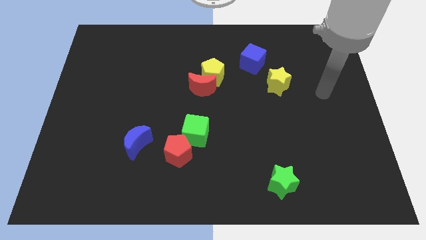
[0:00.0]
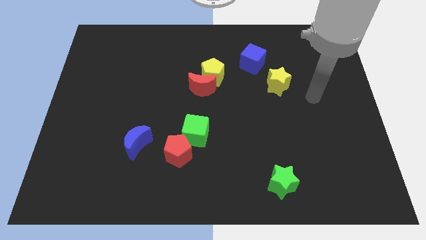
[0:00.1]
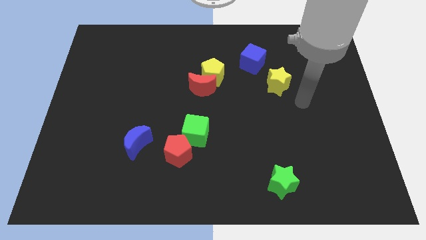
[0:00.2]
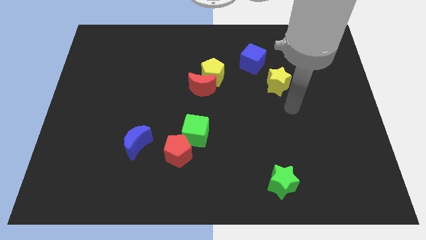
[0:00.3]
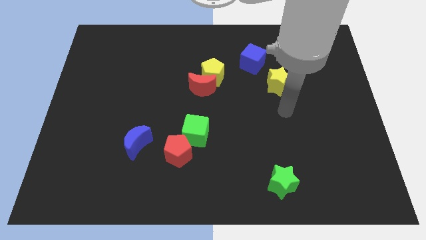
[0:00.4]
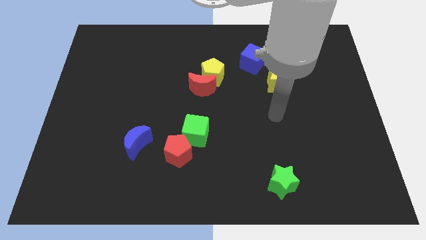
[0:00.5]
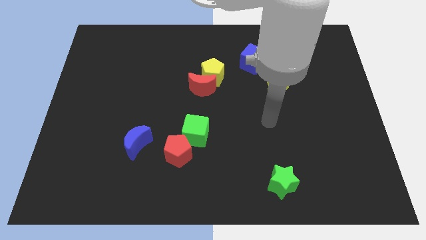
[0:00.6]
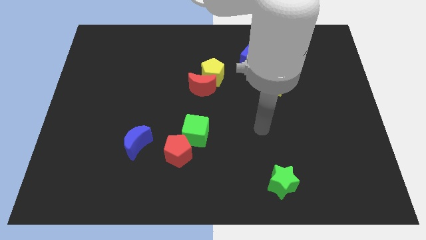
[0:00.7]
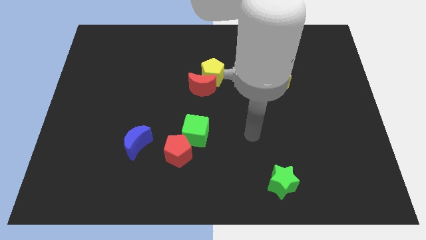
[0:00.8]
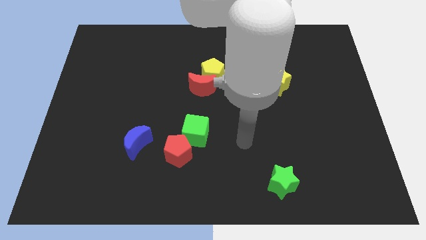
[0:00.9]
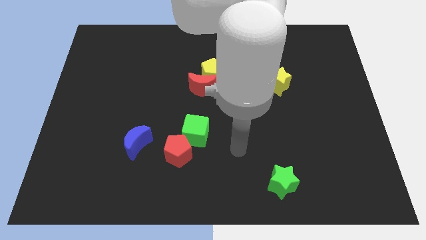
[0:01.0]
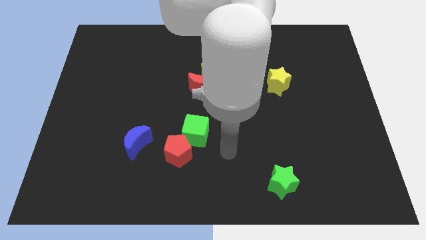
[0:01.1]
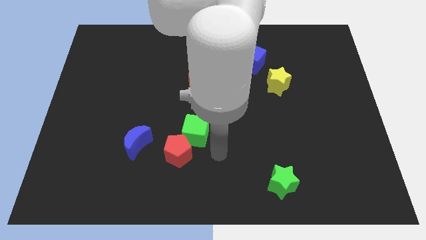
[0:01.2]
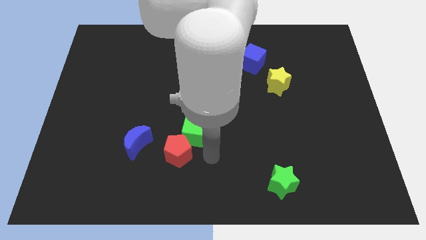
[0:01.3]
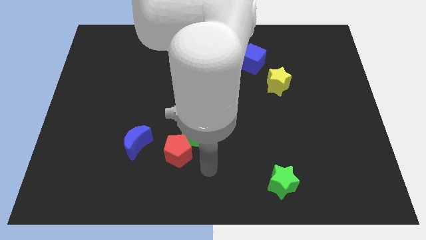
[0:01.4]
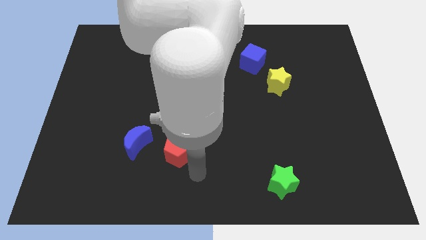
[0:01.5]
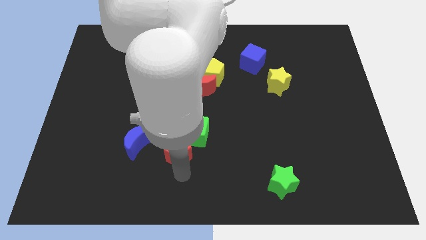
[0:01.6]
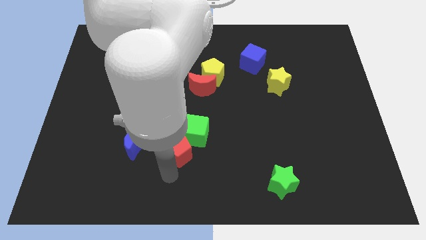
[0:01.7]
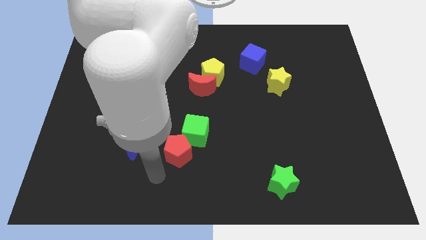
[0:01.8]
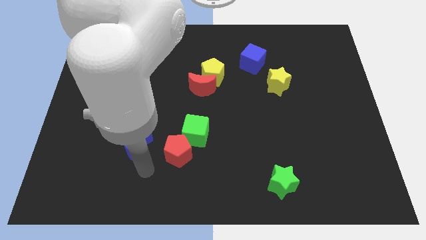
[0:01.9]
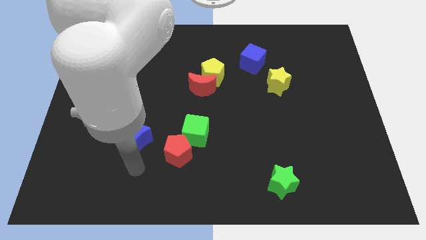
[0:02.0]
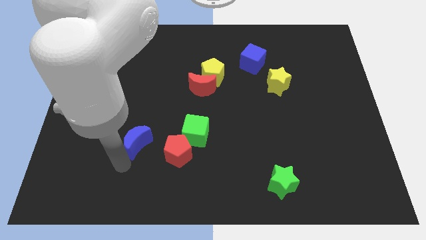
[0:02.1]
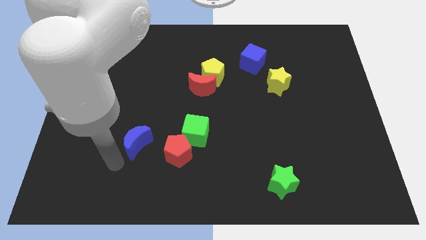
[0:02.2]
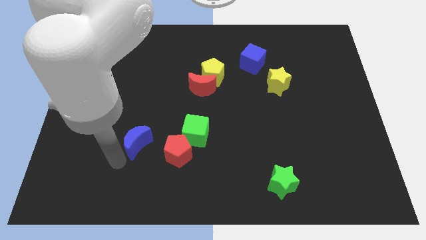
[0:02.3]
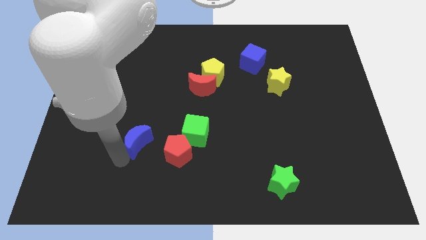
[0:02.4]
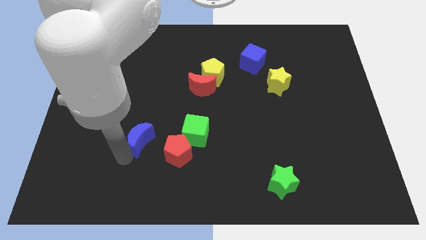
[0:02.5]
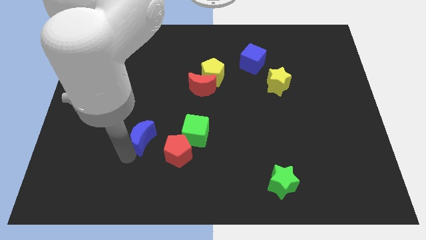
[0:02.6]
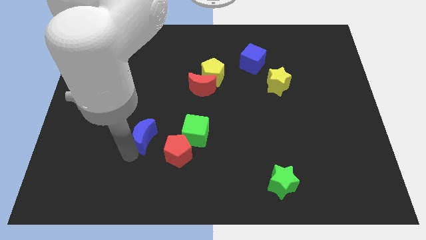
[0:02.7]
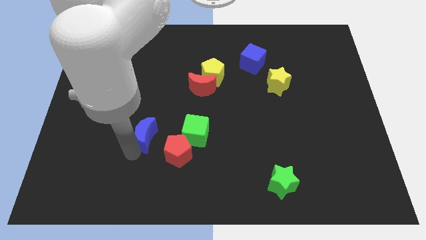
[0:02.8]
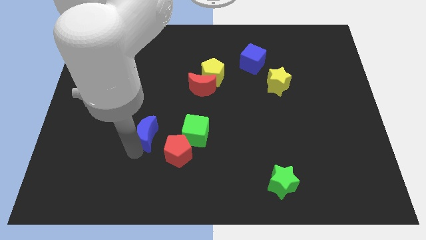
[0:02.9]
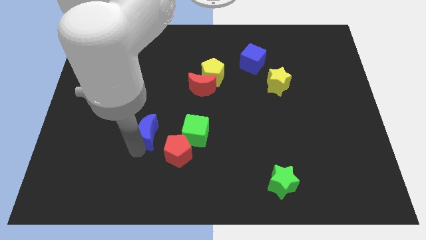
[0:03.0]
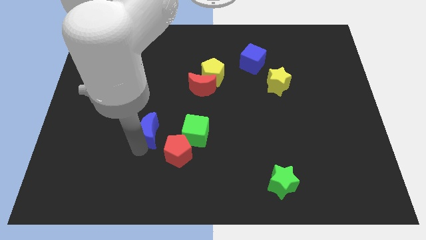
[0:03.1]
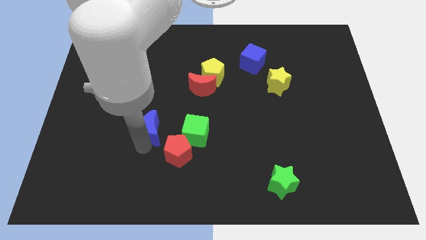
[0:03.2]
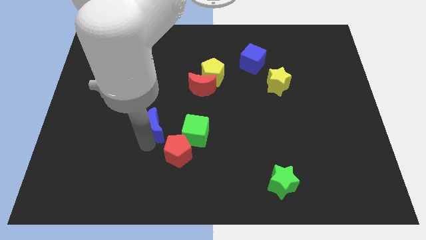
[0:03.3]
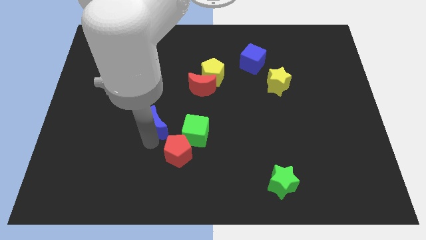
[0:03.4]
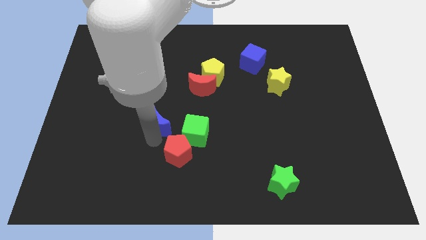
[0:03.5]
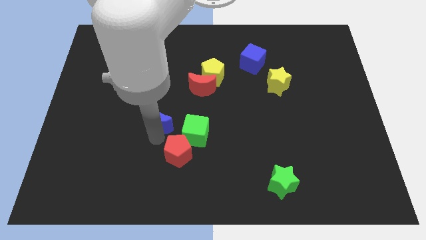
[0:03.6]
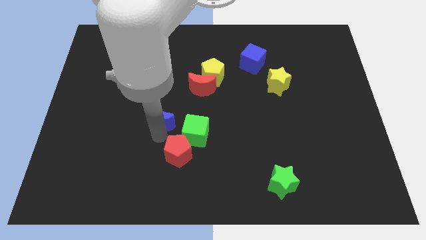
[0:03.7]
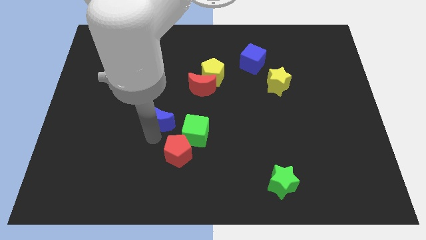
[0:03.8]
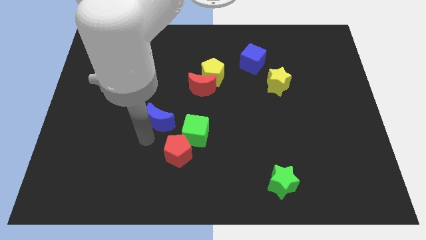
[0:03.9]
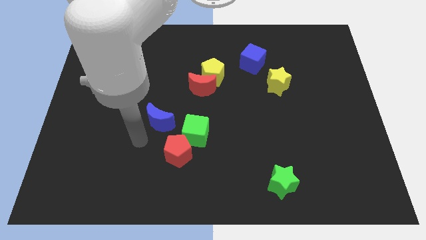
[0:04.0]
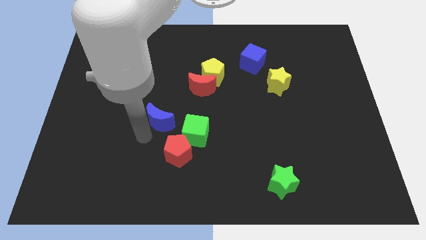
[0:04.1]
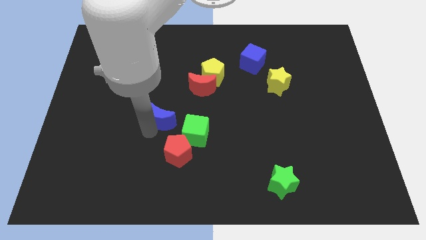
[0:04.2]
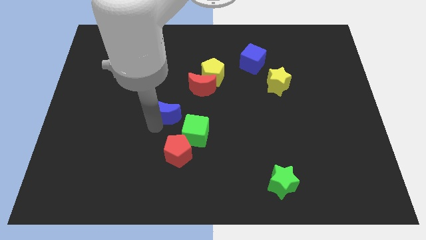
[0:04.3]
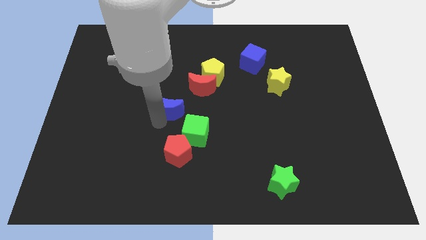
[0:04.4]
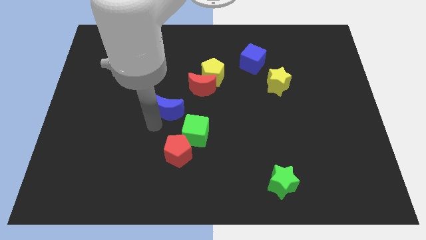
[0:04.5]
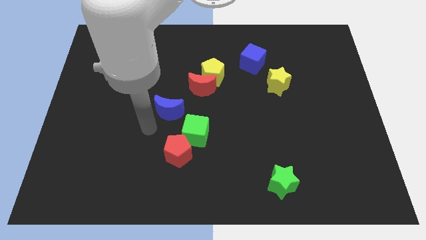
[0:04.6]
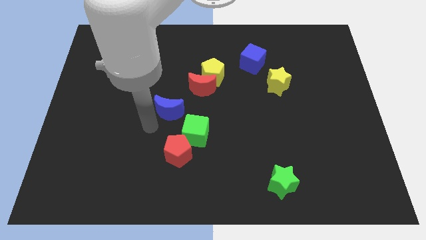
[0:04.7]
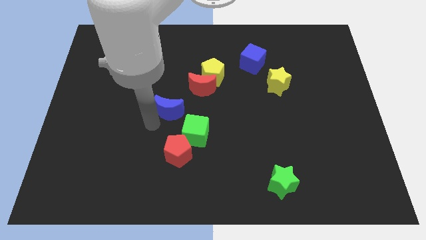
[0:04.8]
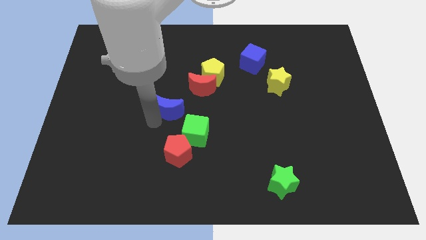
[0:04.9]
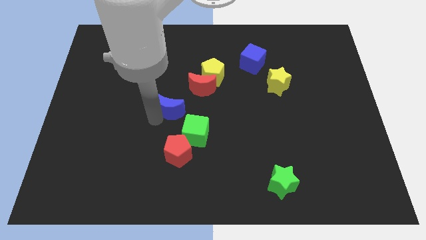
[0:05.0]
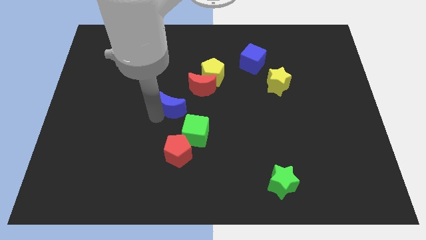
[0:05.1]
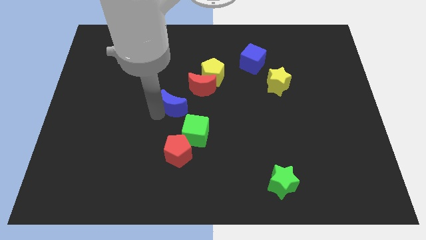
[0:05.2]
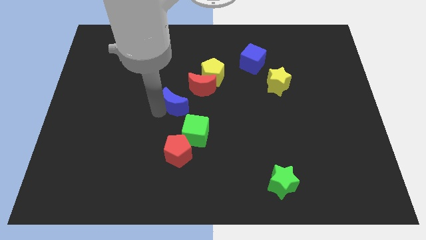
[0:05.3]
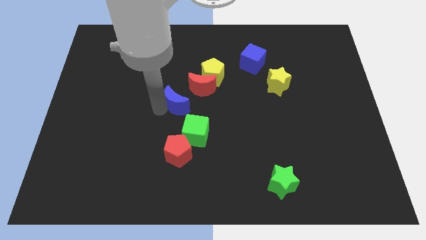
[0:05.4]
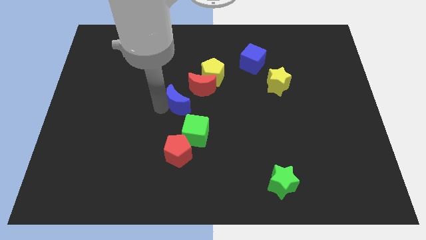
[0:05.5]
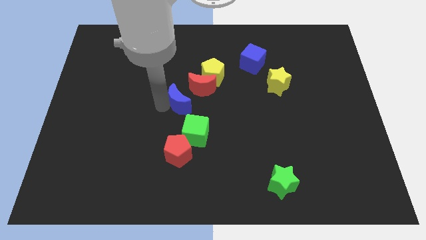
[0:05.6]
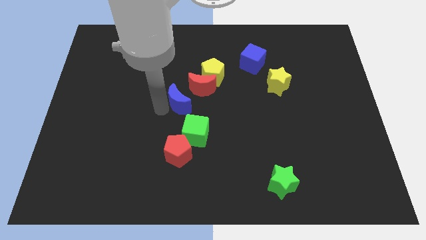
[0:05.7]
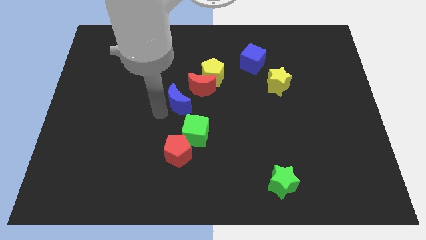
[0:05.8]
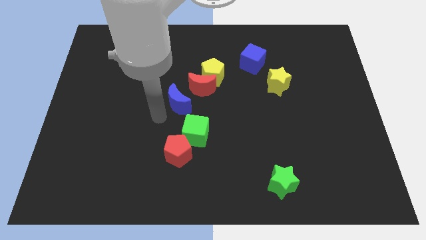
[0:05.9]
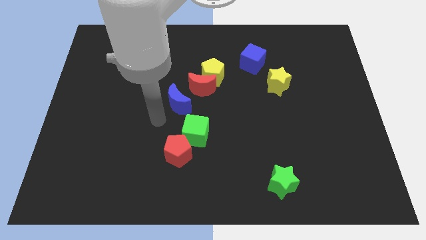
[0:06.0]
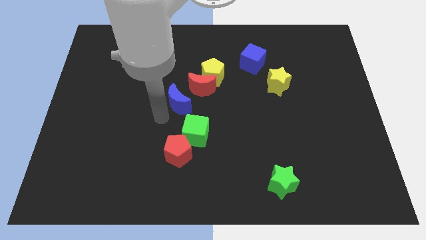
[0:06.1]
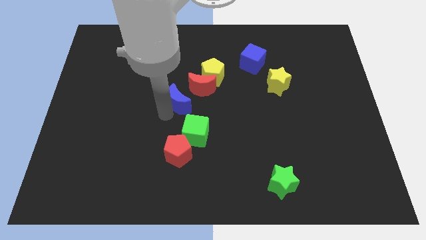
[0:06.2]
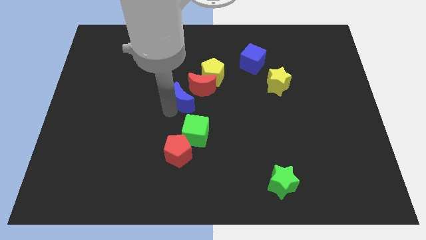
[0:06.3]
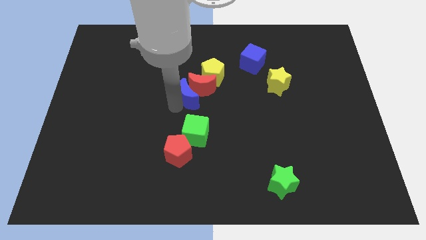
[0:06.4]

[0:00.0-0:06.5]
slide the blue moon to the red moon
